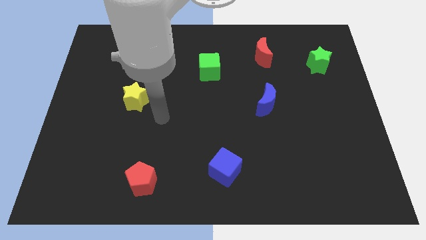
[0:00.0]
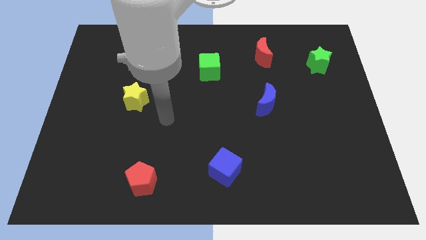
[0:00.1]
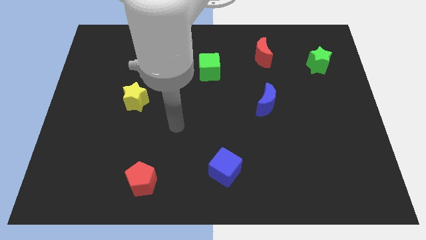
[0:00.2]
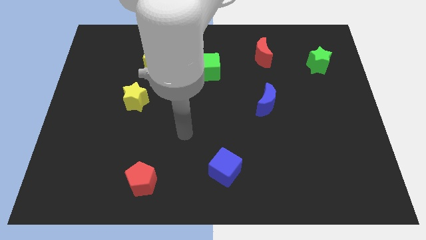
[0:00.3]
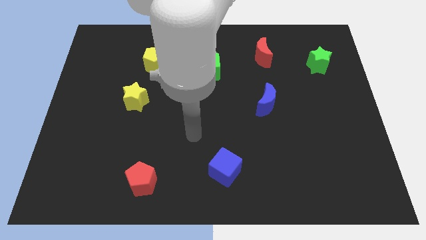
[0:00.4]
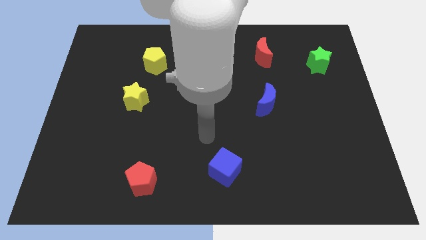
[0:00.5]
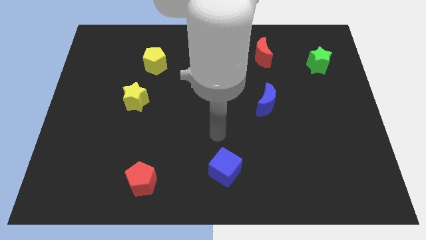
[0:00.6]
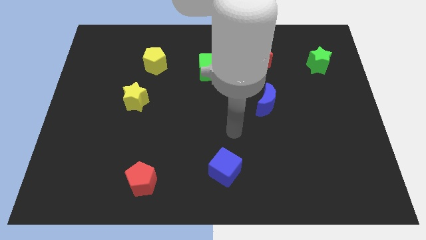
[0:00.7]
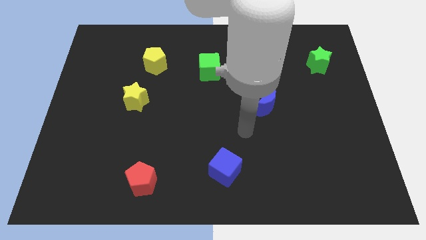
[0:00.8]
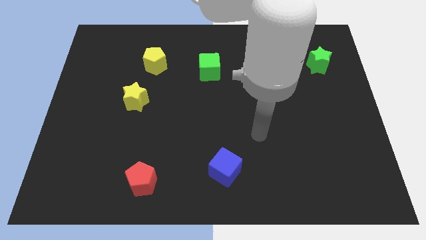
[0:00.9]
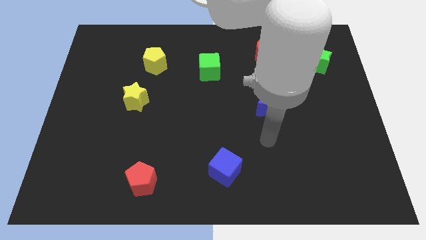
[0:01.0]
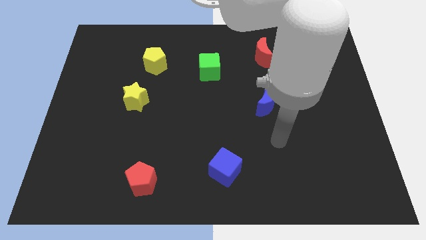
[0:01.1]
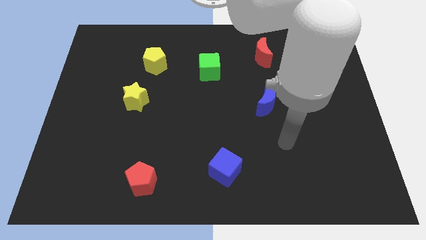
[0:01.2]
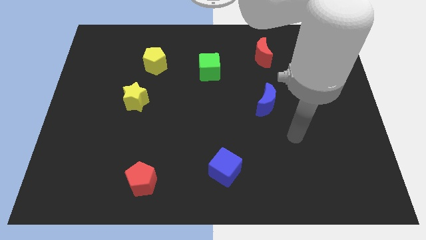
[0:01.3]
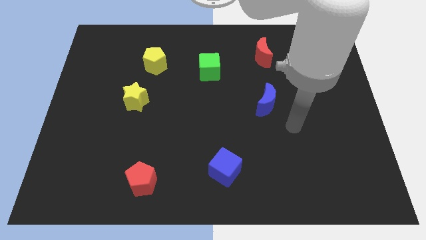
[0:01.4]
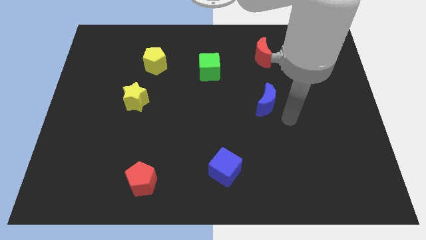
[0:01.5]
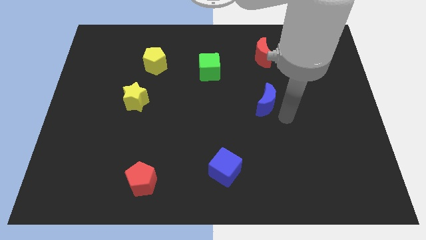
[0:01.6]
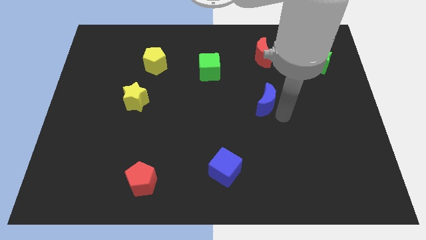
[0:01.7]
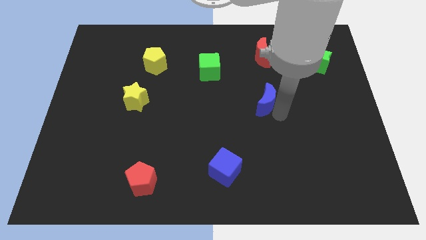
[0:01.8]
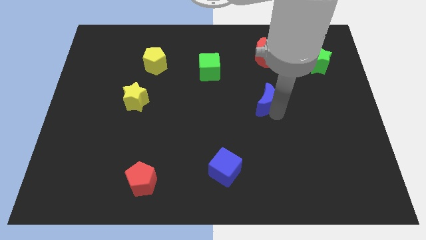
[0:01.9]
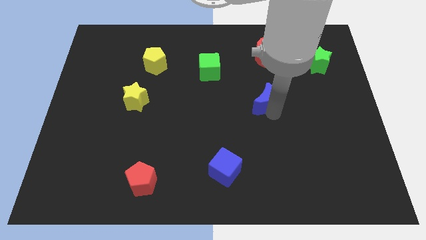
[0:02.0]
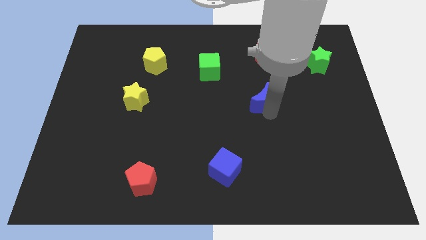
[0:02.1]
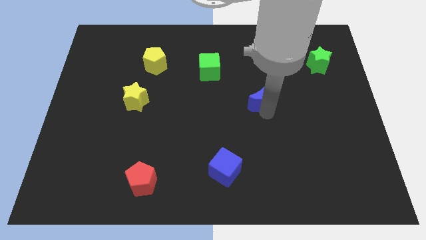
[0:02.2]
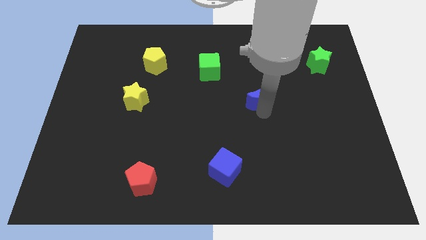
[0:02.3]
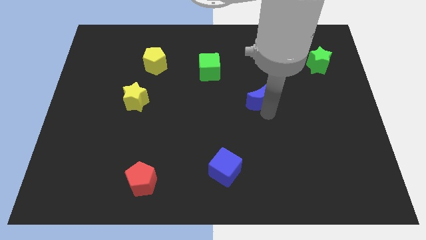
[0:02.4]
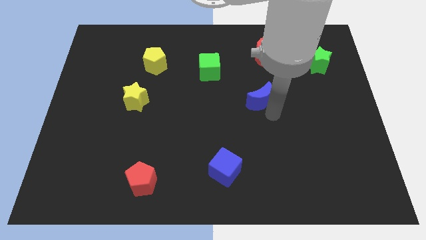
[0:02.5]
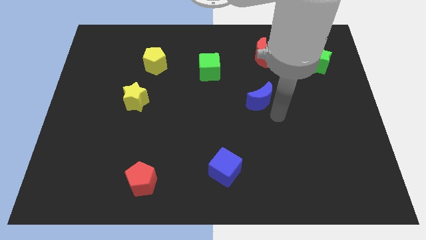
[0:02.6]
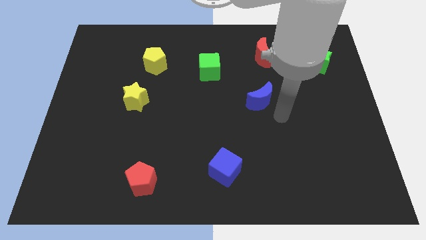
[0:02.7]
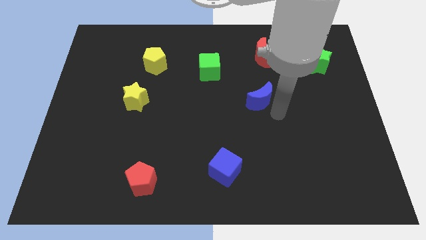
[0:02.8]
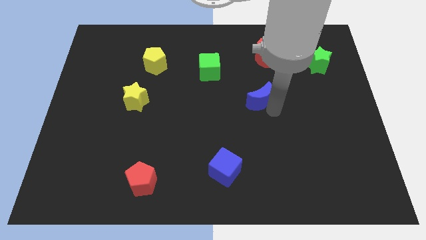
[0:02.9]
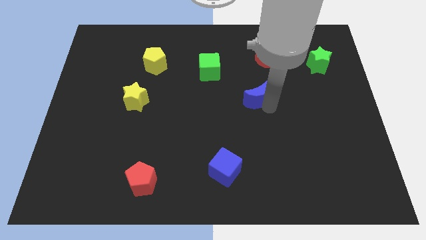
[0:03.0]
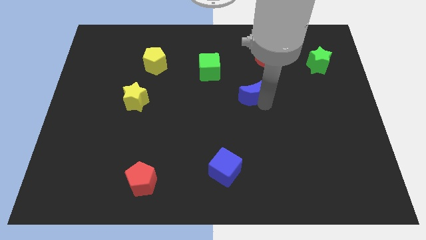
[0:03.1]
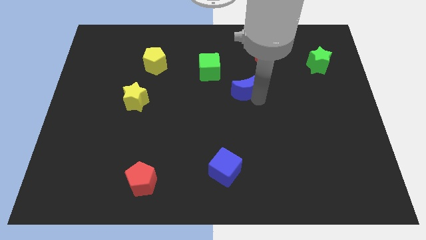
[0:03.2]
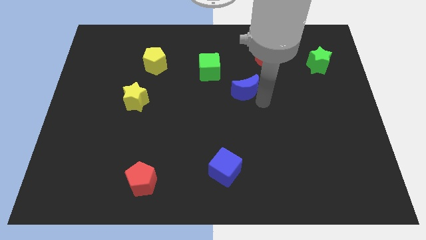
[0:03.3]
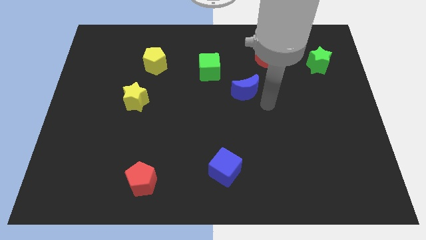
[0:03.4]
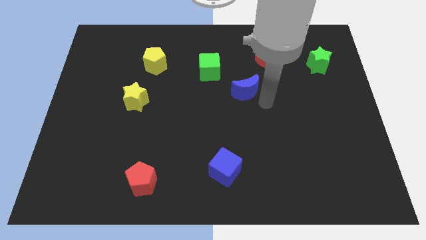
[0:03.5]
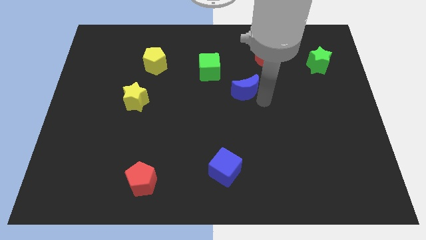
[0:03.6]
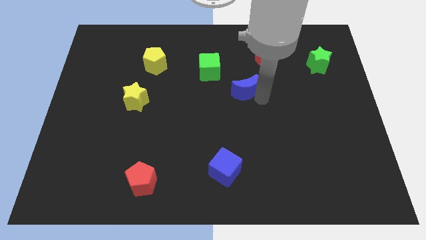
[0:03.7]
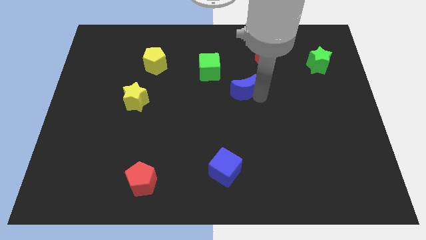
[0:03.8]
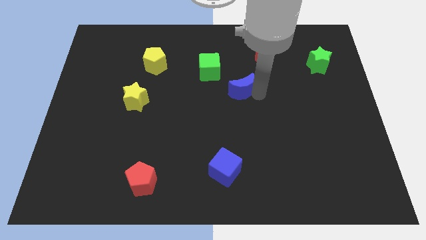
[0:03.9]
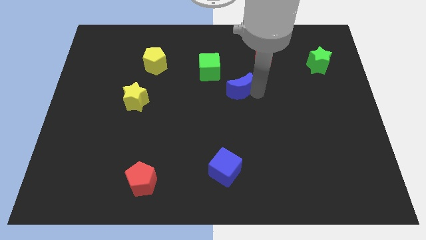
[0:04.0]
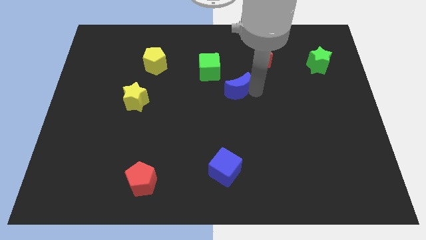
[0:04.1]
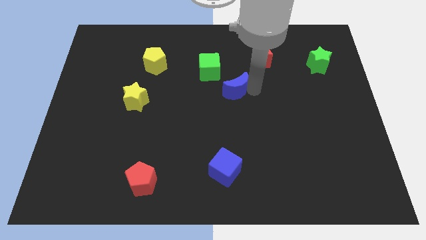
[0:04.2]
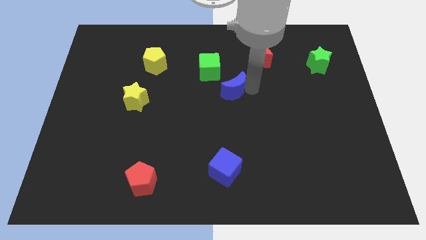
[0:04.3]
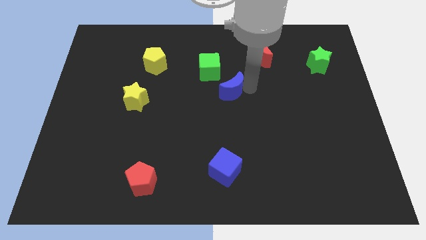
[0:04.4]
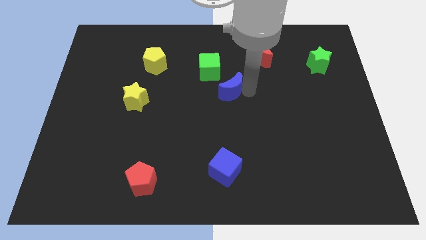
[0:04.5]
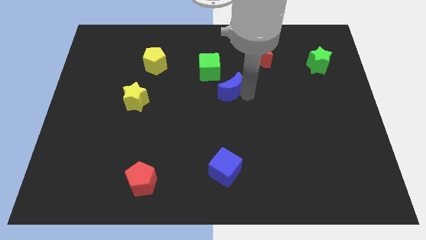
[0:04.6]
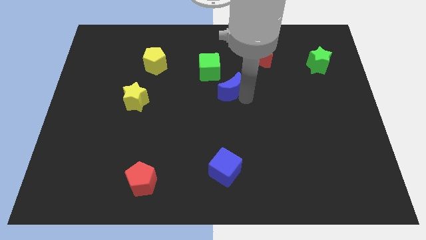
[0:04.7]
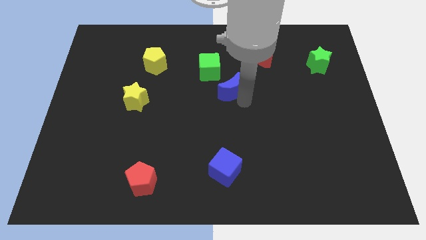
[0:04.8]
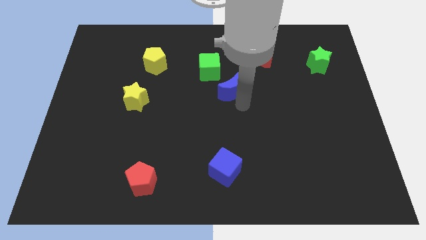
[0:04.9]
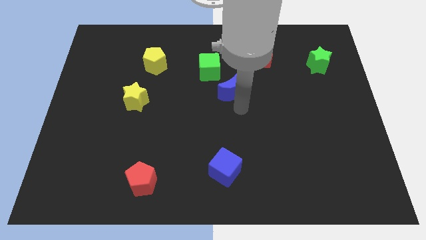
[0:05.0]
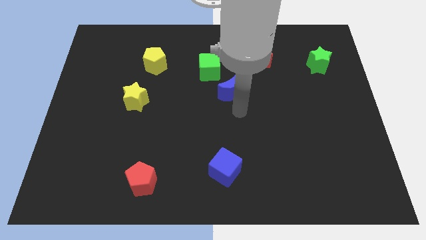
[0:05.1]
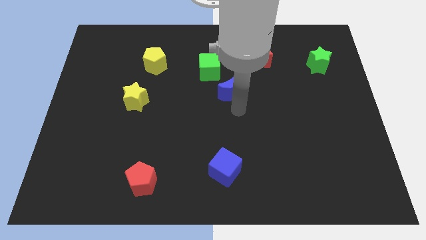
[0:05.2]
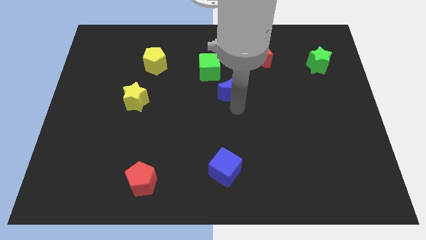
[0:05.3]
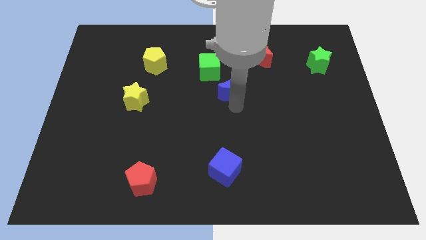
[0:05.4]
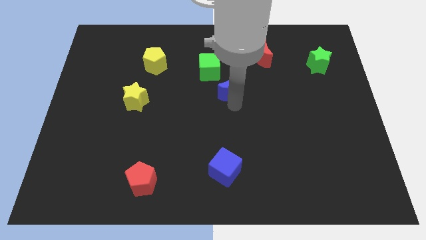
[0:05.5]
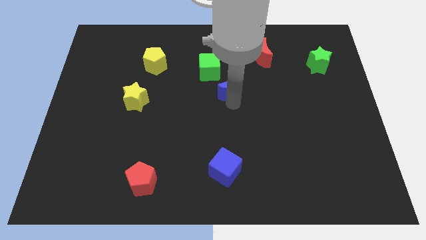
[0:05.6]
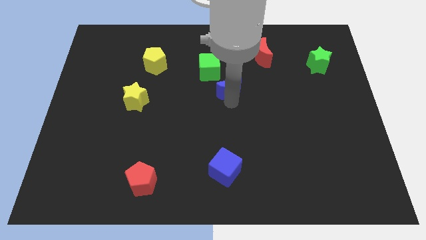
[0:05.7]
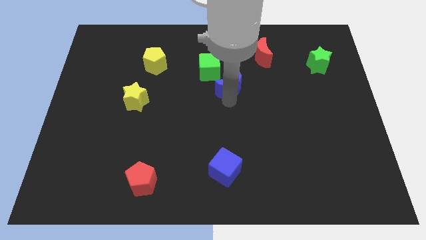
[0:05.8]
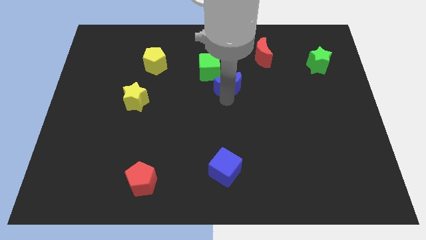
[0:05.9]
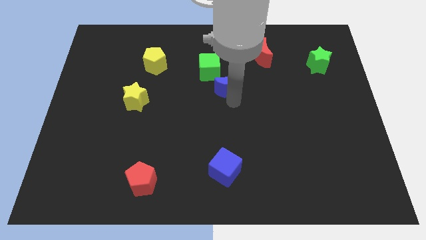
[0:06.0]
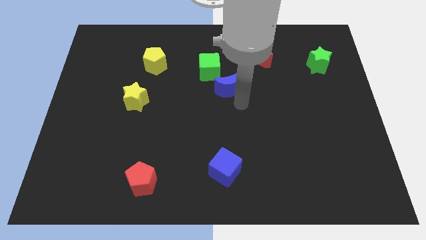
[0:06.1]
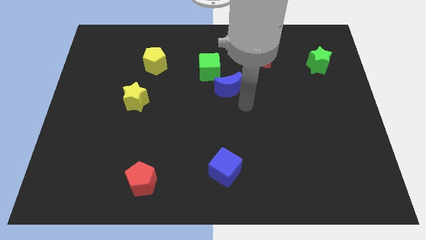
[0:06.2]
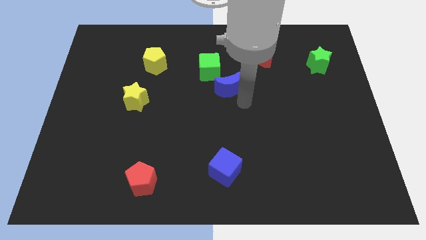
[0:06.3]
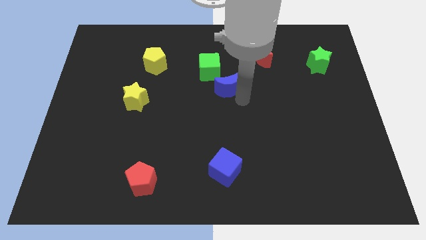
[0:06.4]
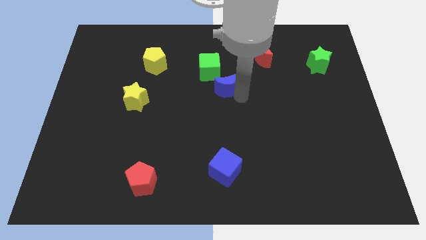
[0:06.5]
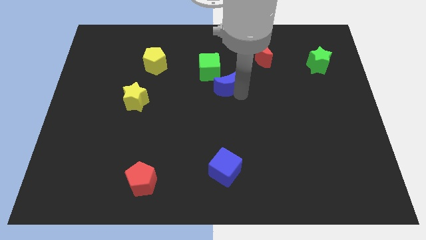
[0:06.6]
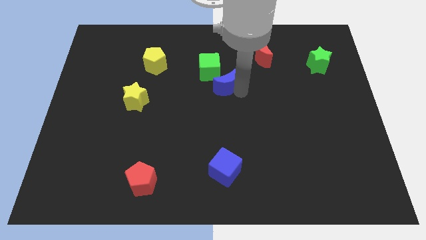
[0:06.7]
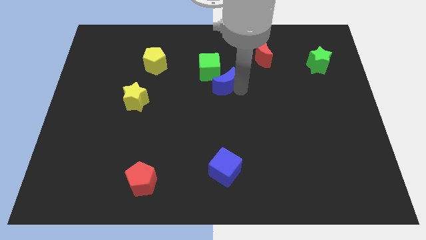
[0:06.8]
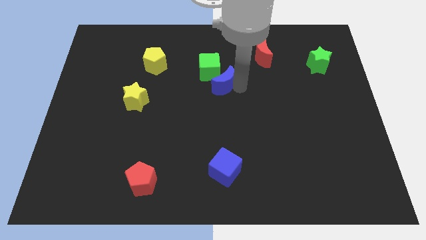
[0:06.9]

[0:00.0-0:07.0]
move the blue moon towards the green cube

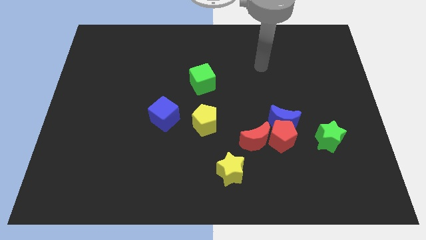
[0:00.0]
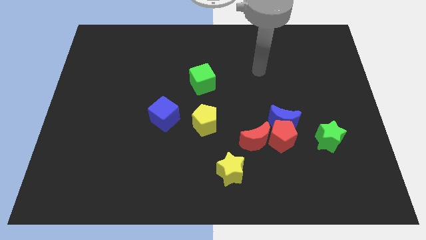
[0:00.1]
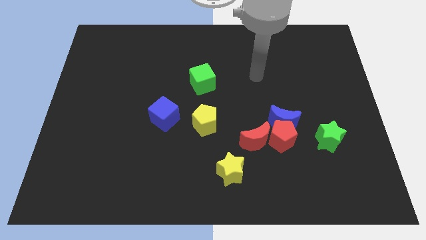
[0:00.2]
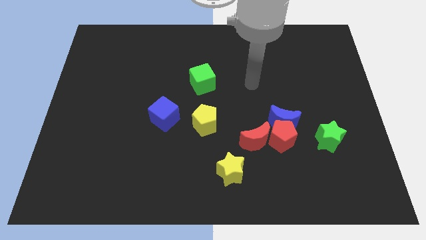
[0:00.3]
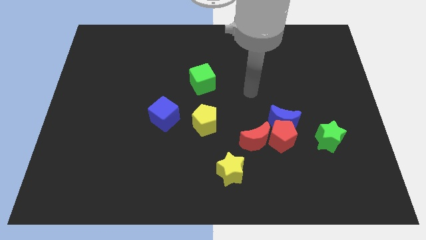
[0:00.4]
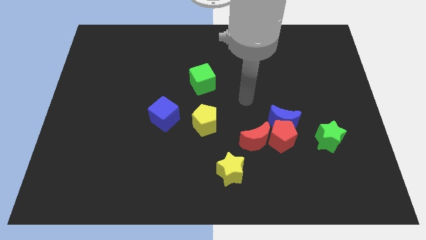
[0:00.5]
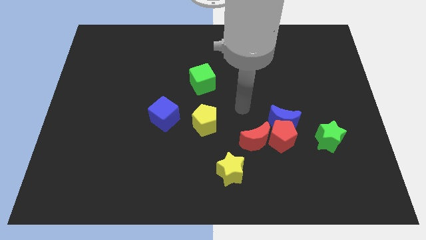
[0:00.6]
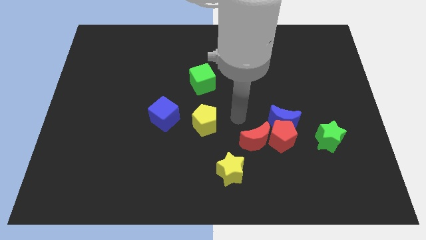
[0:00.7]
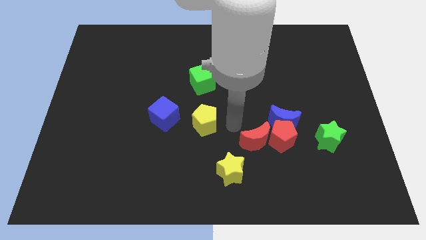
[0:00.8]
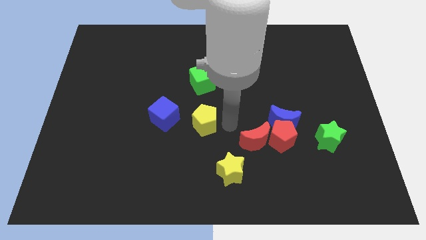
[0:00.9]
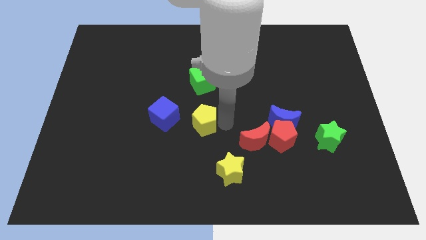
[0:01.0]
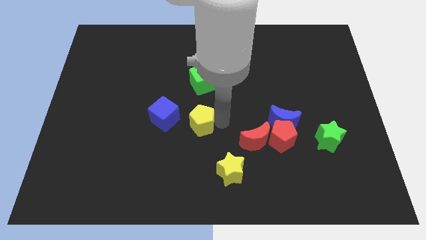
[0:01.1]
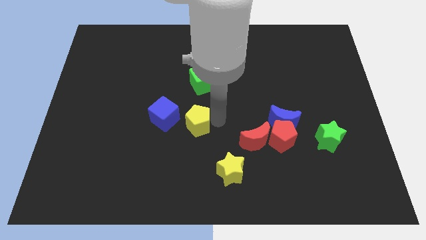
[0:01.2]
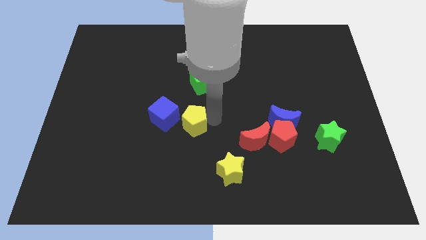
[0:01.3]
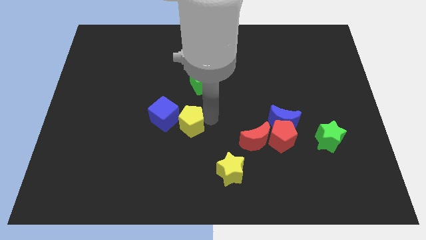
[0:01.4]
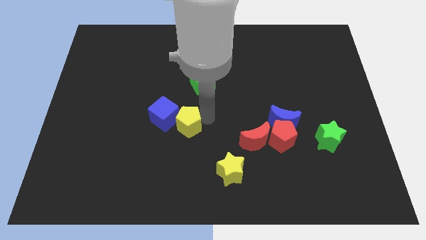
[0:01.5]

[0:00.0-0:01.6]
slide the yellow pentagon close to the blue cube
